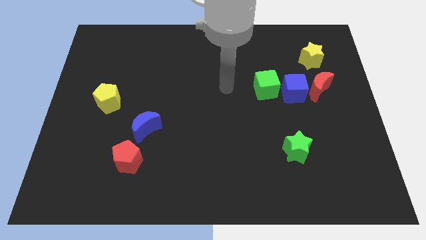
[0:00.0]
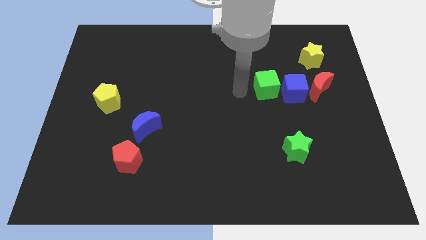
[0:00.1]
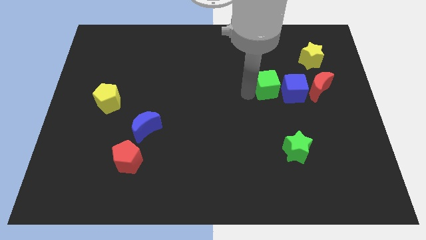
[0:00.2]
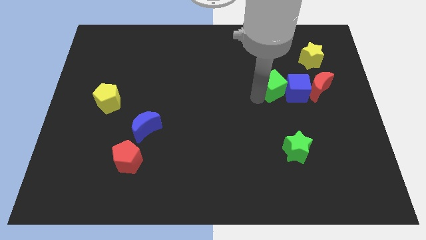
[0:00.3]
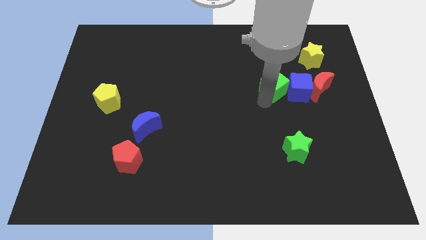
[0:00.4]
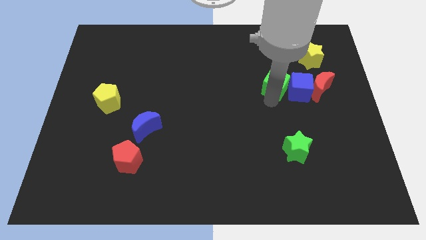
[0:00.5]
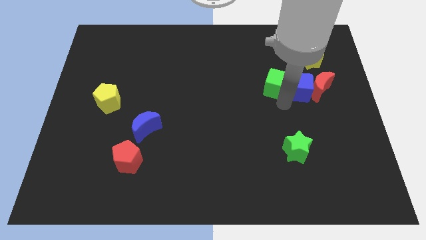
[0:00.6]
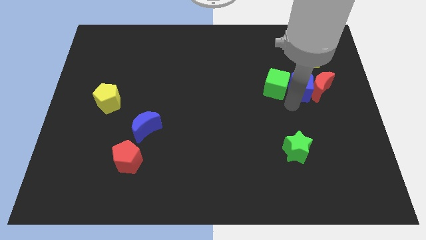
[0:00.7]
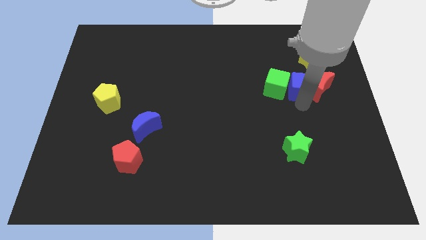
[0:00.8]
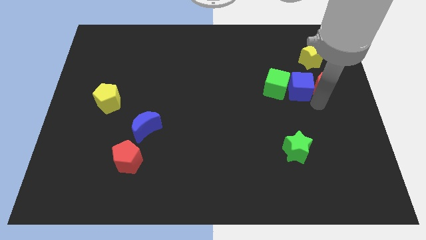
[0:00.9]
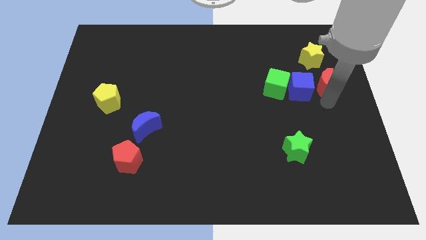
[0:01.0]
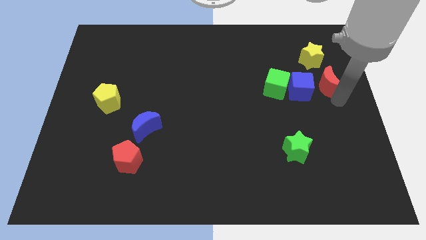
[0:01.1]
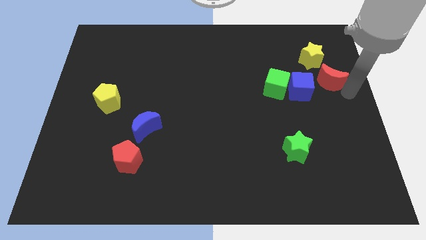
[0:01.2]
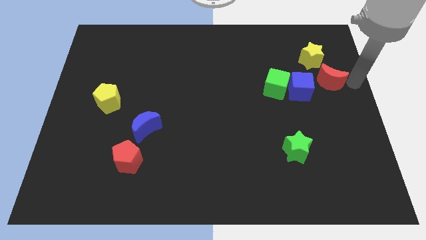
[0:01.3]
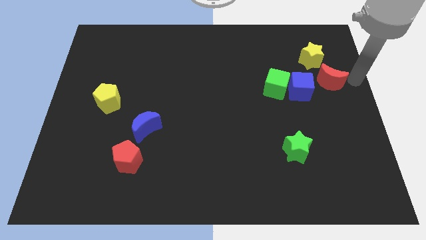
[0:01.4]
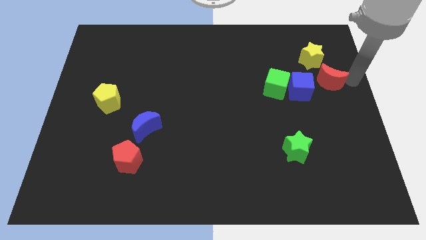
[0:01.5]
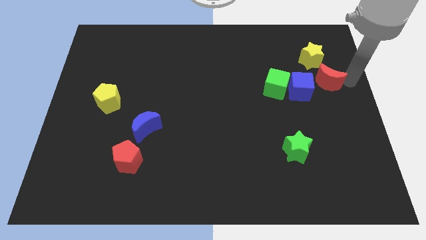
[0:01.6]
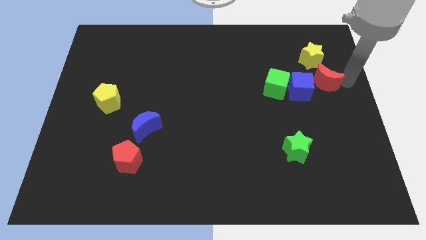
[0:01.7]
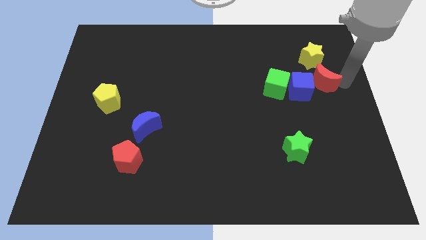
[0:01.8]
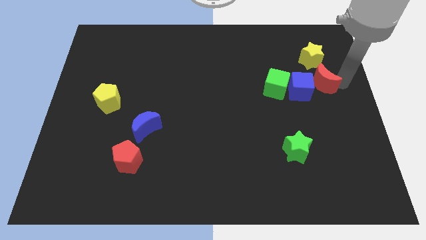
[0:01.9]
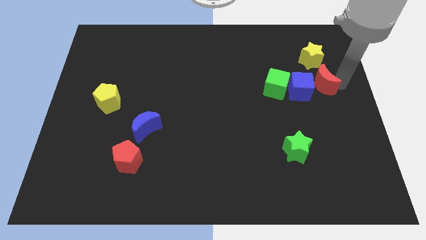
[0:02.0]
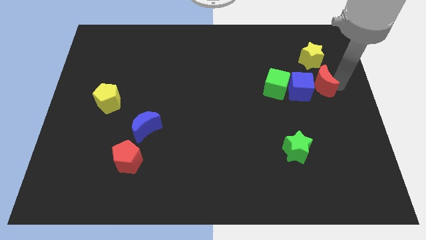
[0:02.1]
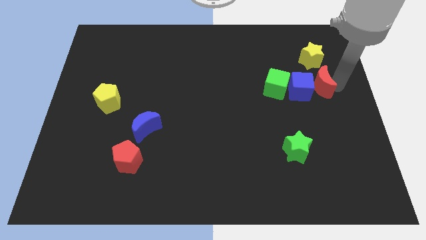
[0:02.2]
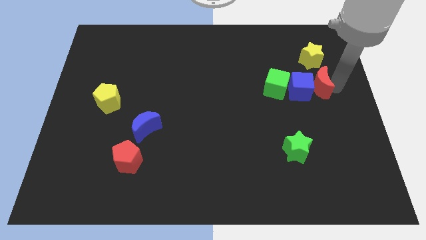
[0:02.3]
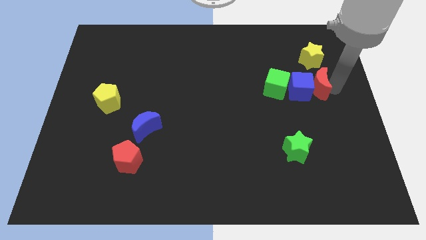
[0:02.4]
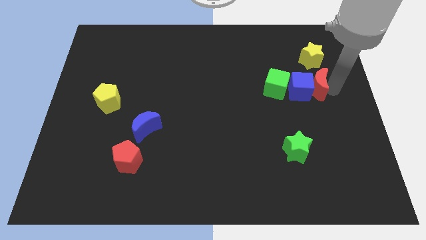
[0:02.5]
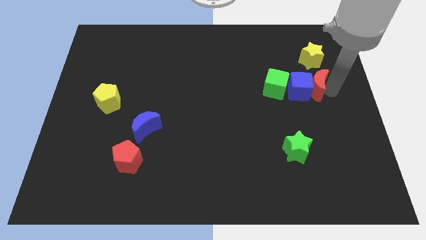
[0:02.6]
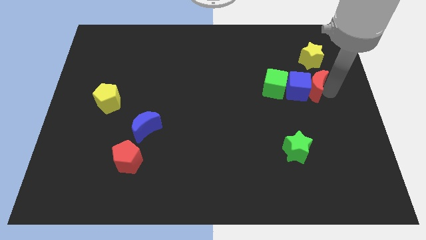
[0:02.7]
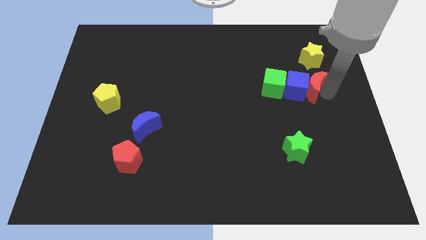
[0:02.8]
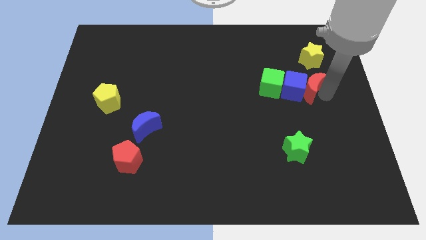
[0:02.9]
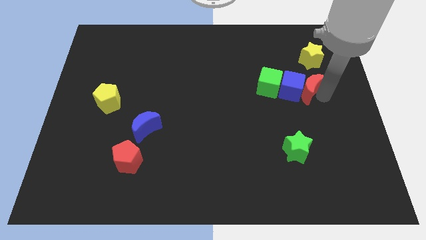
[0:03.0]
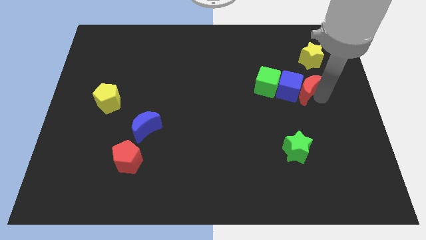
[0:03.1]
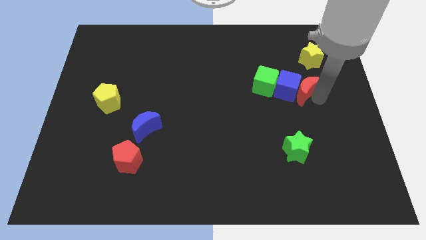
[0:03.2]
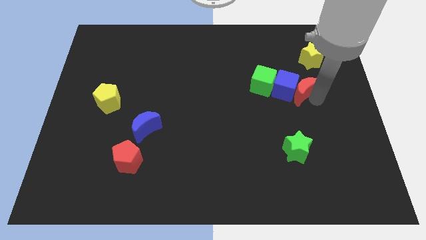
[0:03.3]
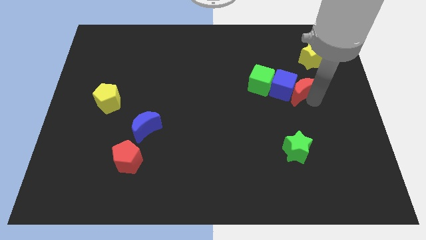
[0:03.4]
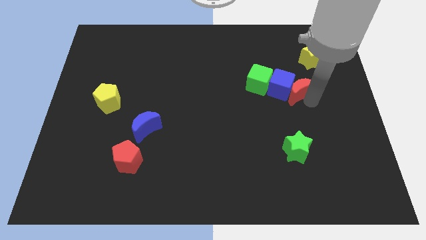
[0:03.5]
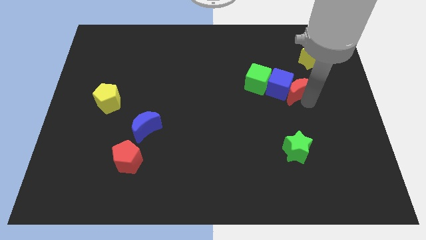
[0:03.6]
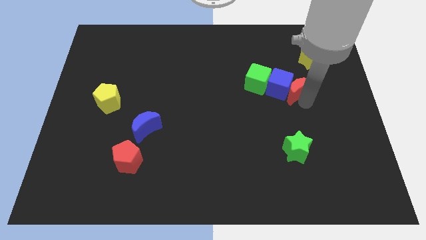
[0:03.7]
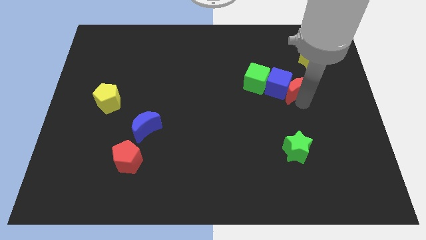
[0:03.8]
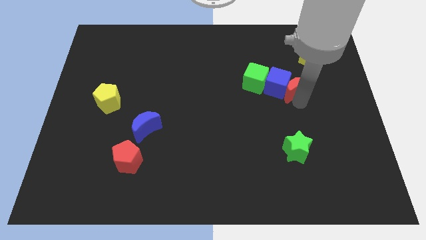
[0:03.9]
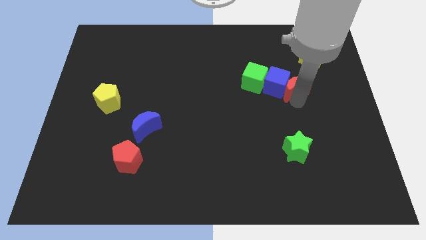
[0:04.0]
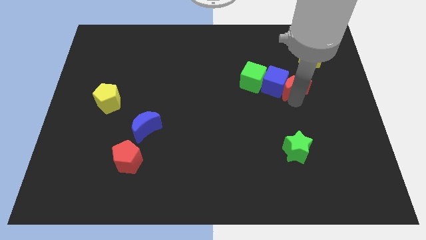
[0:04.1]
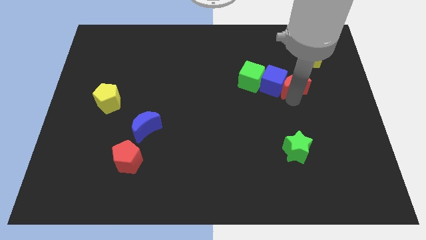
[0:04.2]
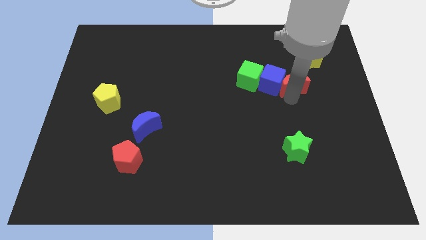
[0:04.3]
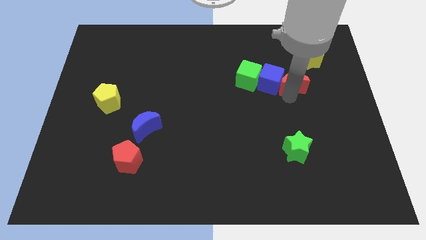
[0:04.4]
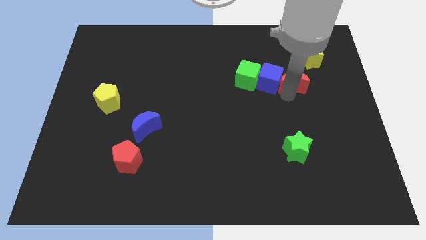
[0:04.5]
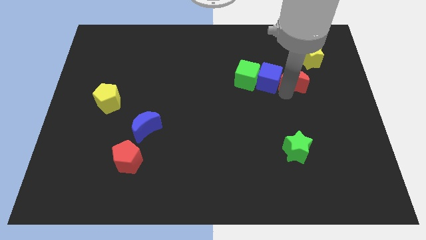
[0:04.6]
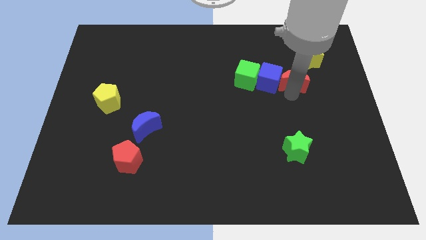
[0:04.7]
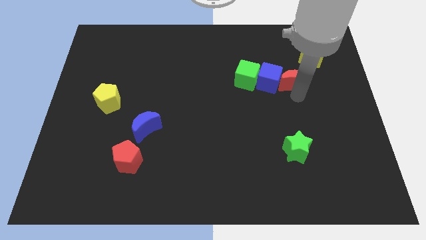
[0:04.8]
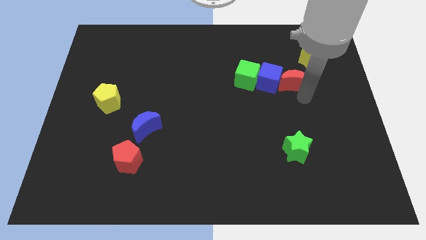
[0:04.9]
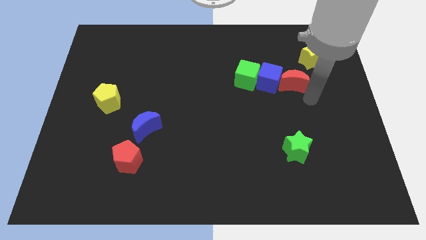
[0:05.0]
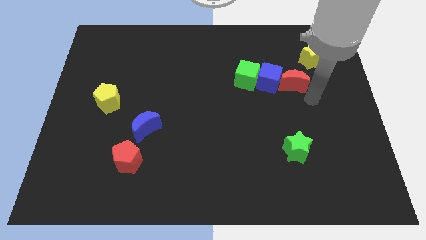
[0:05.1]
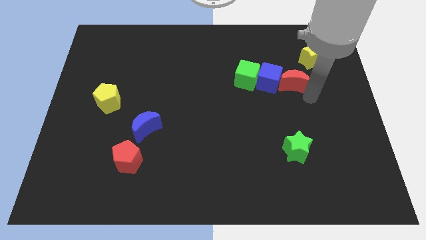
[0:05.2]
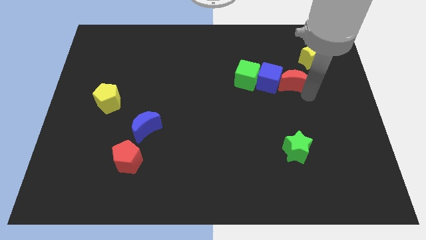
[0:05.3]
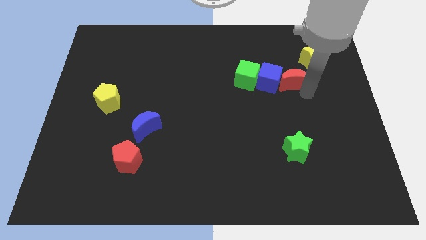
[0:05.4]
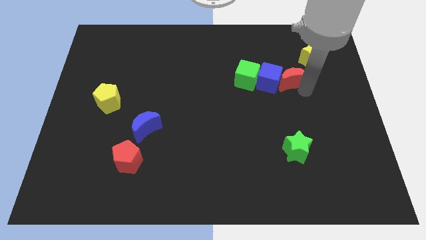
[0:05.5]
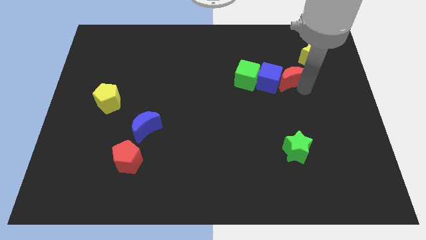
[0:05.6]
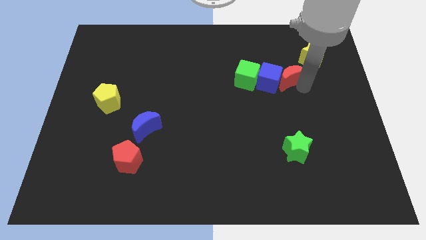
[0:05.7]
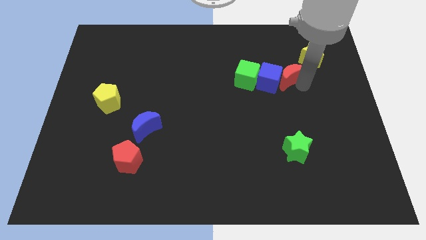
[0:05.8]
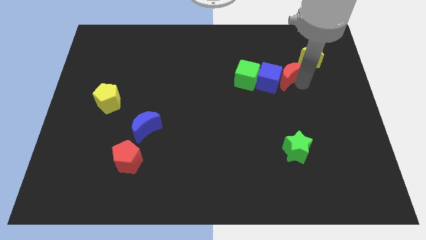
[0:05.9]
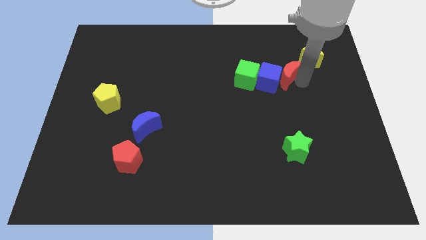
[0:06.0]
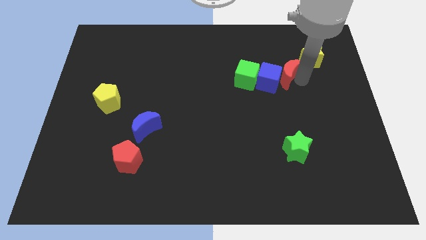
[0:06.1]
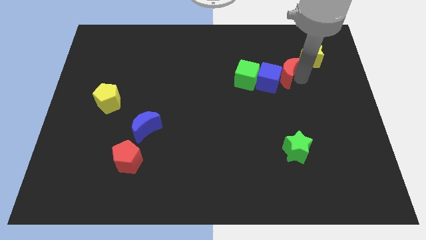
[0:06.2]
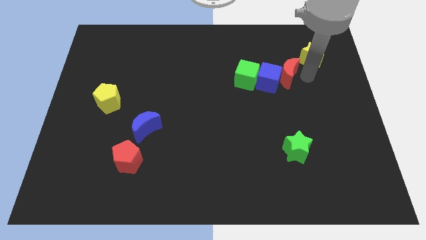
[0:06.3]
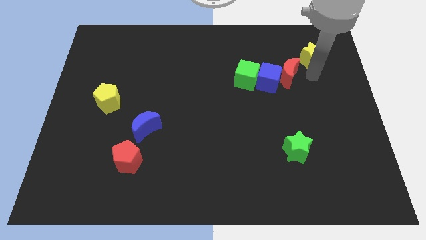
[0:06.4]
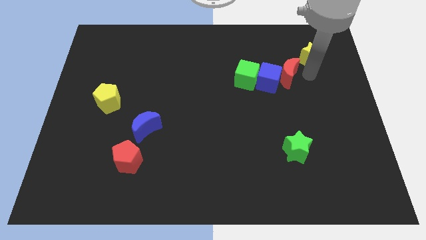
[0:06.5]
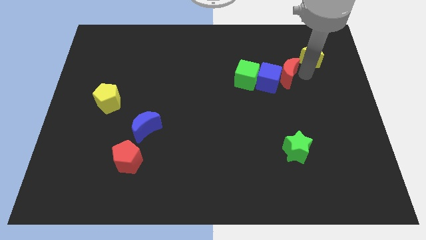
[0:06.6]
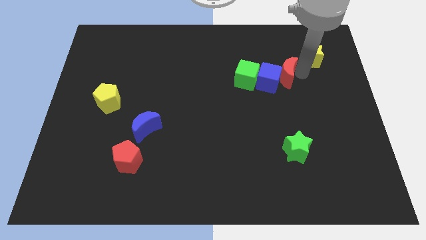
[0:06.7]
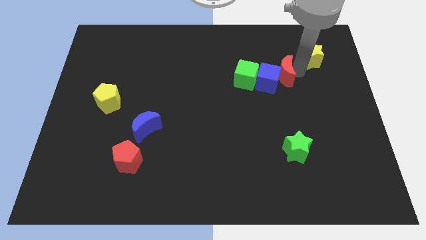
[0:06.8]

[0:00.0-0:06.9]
slightly move the red moon to the left

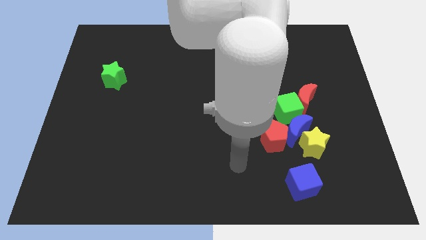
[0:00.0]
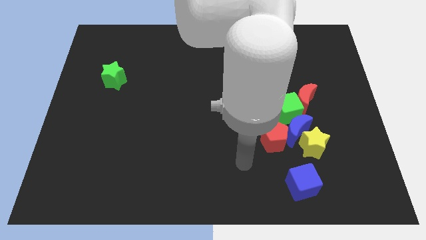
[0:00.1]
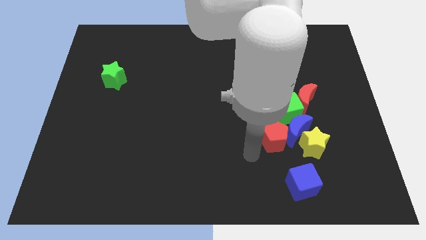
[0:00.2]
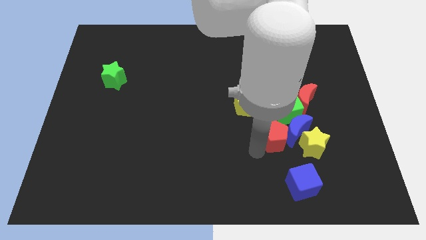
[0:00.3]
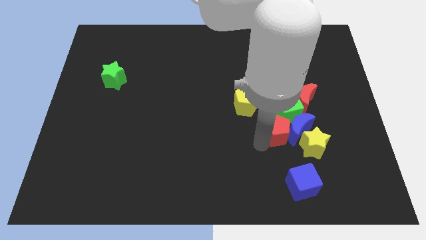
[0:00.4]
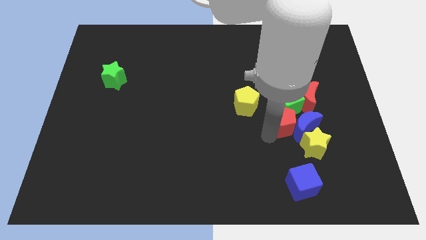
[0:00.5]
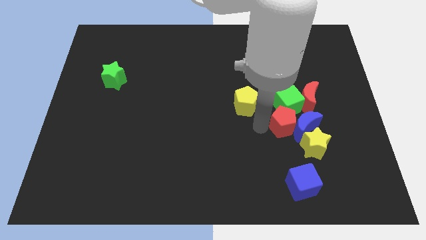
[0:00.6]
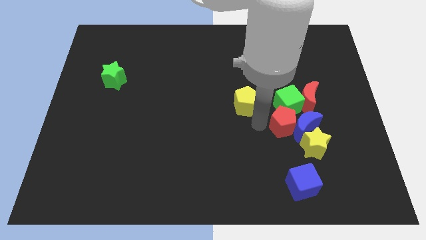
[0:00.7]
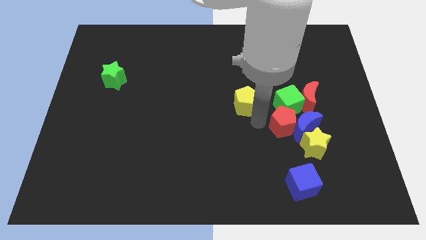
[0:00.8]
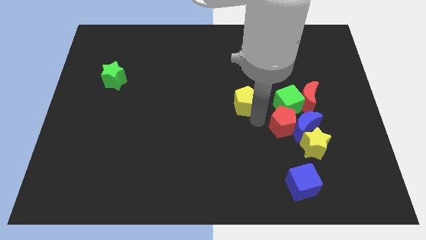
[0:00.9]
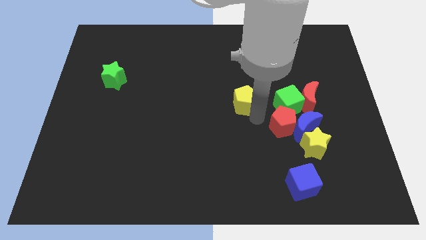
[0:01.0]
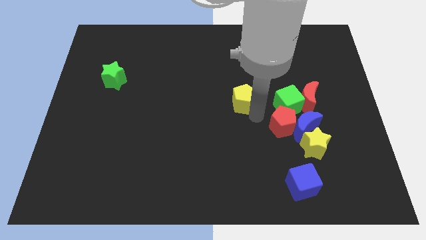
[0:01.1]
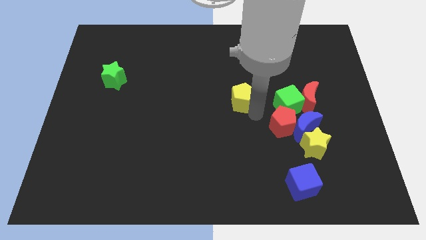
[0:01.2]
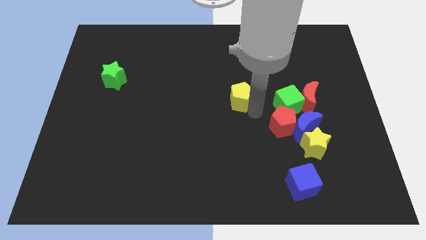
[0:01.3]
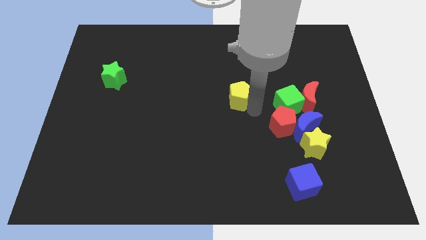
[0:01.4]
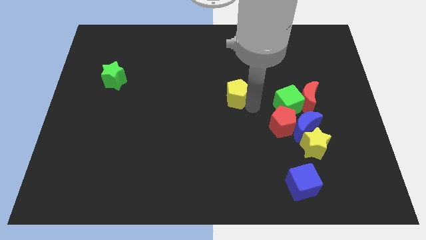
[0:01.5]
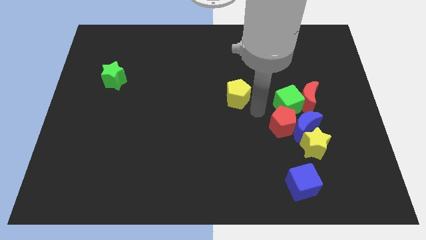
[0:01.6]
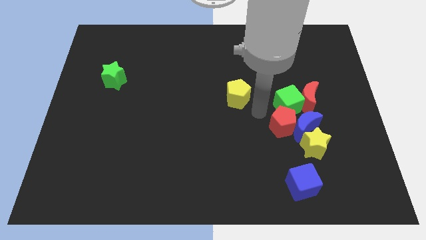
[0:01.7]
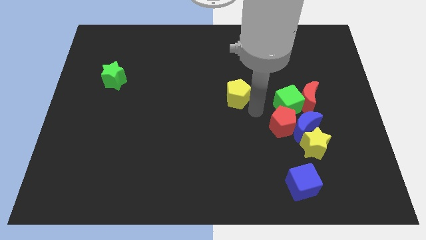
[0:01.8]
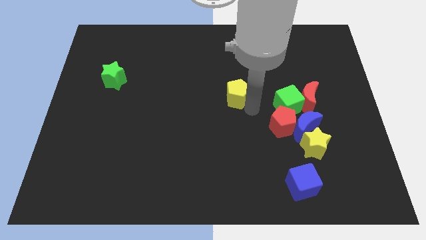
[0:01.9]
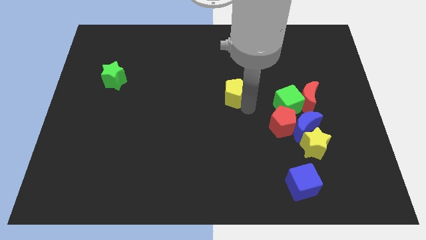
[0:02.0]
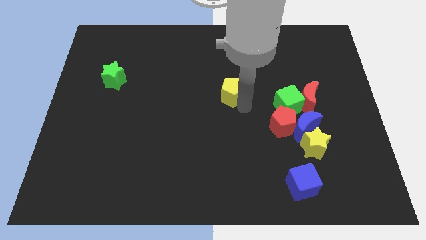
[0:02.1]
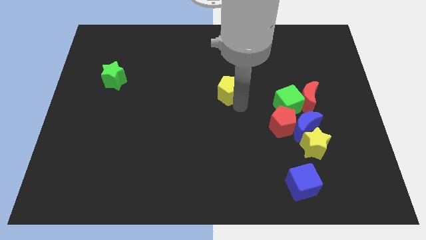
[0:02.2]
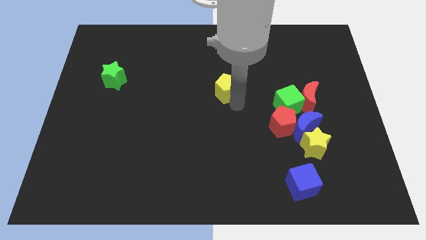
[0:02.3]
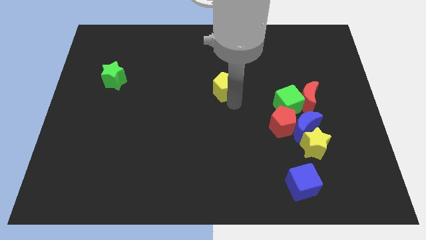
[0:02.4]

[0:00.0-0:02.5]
push the yellow pentagon slightly upwards and then to the left
